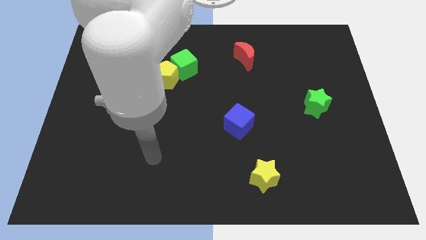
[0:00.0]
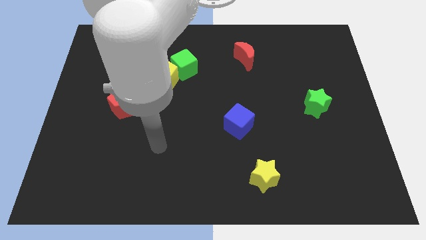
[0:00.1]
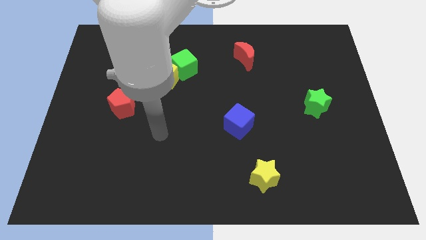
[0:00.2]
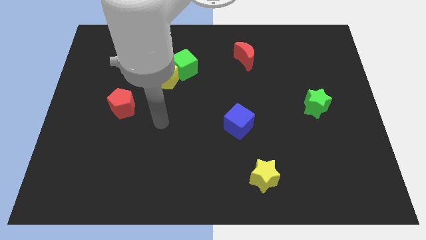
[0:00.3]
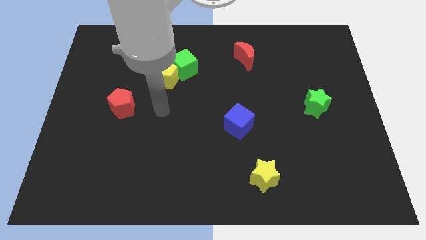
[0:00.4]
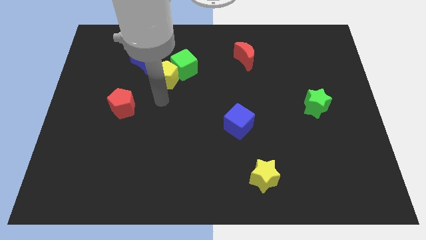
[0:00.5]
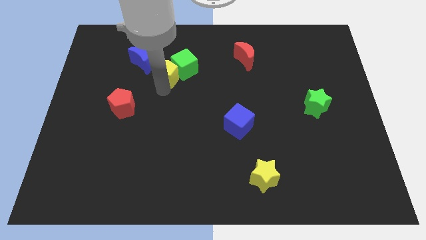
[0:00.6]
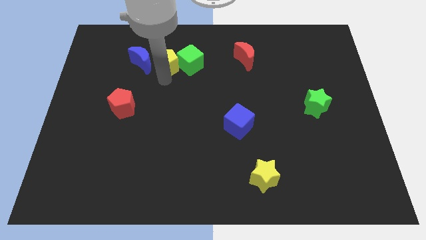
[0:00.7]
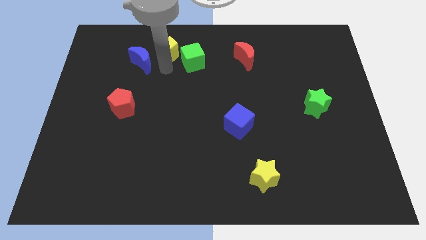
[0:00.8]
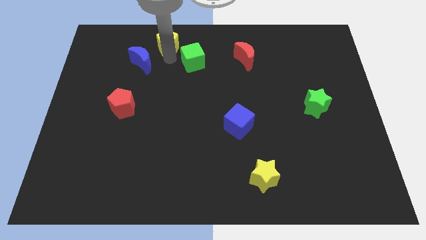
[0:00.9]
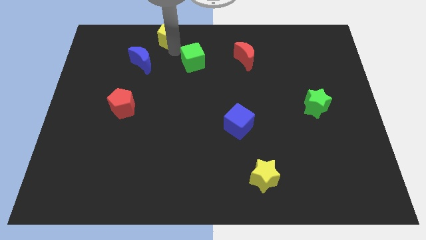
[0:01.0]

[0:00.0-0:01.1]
move the green cube away from the yellow pentagon

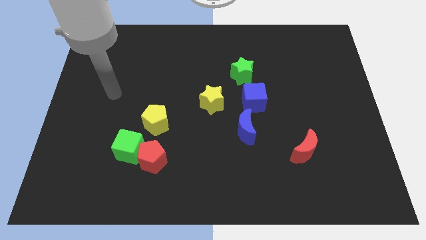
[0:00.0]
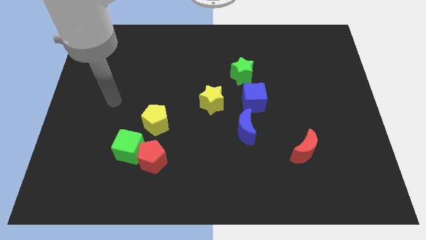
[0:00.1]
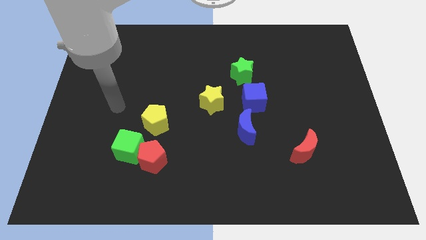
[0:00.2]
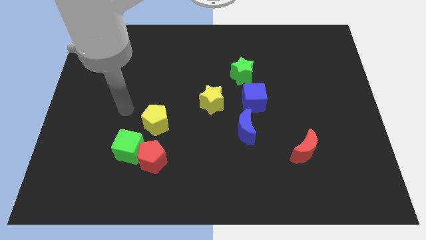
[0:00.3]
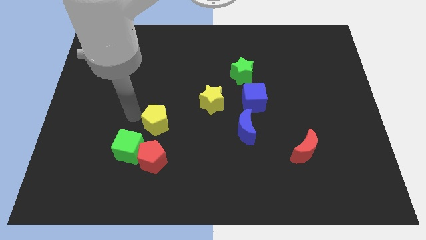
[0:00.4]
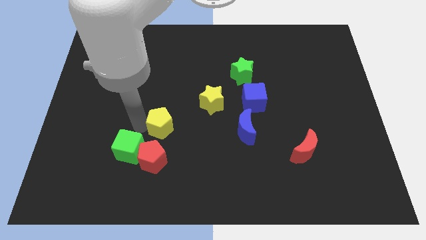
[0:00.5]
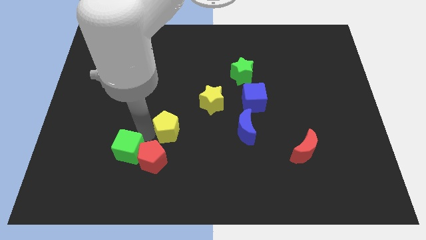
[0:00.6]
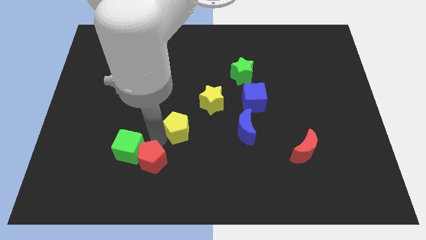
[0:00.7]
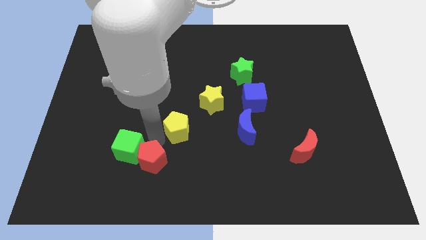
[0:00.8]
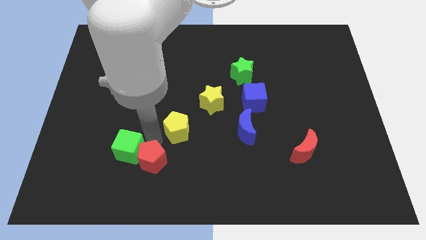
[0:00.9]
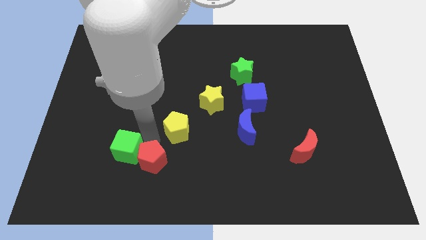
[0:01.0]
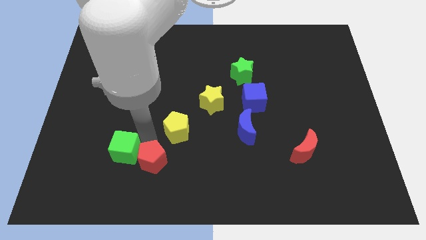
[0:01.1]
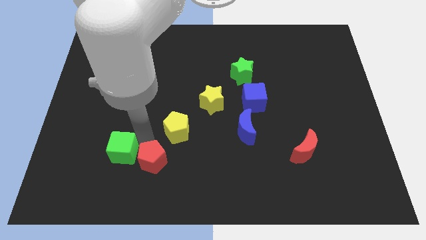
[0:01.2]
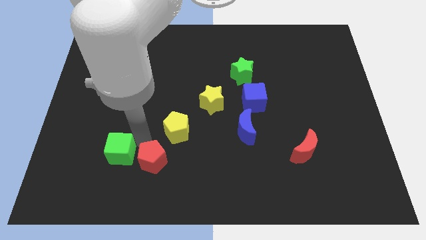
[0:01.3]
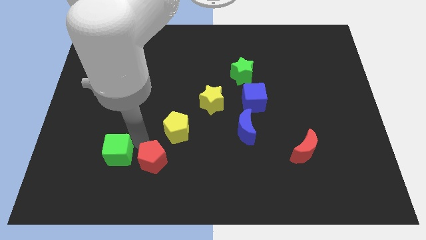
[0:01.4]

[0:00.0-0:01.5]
move the green cube away from the red pentagon and yellow pentagon

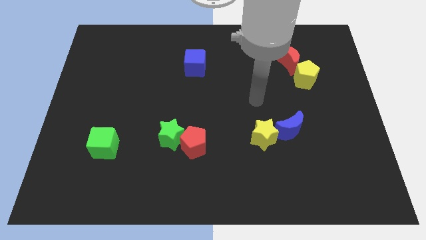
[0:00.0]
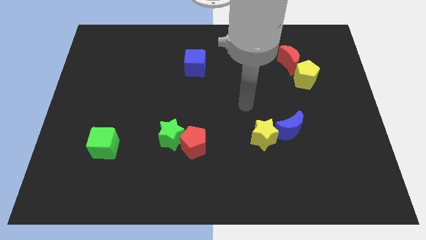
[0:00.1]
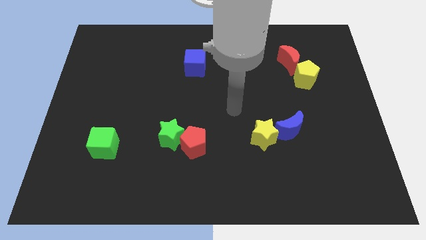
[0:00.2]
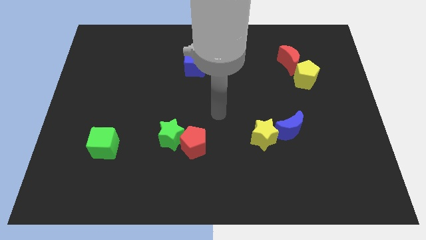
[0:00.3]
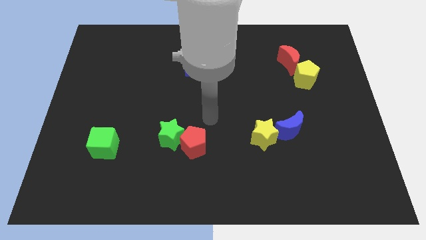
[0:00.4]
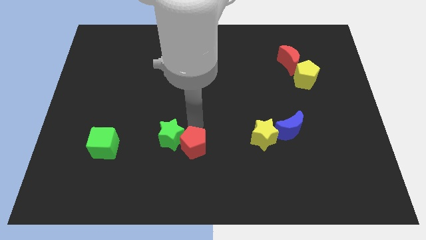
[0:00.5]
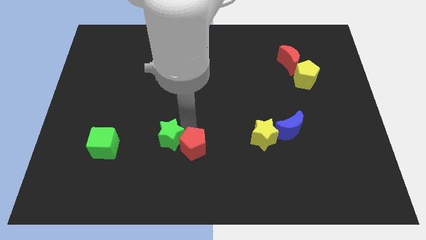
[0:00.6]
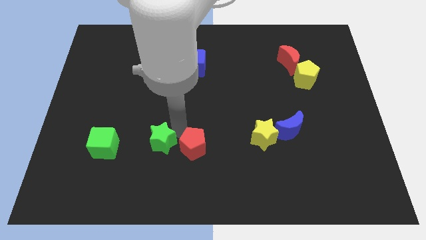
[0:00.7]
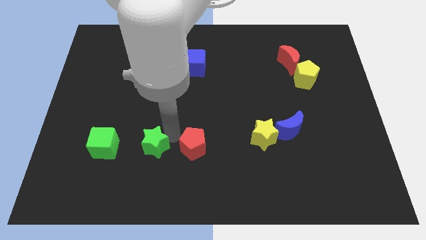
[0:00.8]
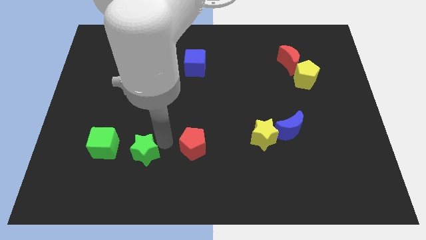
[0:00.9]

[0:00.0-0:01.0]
move the red pentagon away from the green star

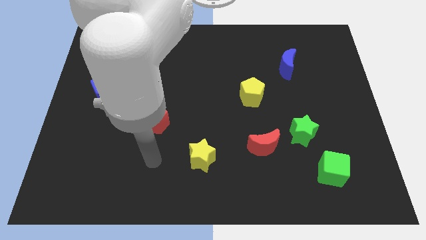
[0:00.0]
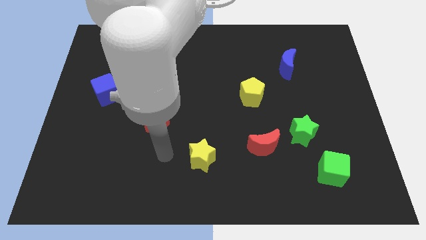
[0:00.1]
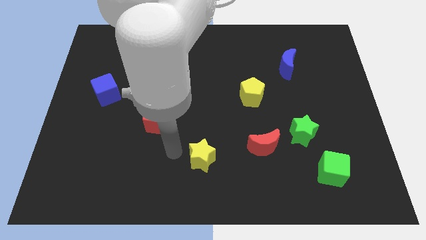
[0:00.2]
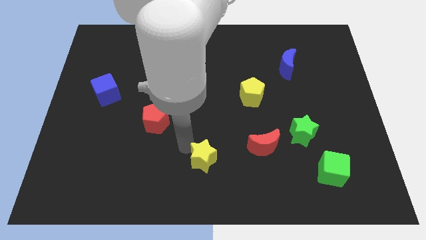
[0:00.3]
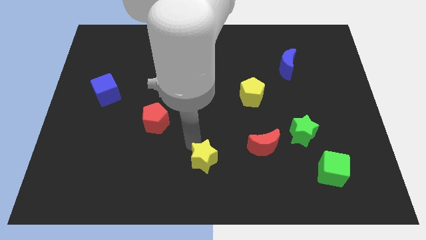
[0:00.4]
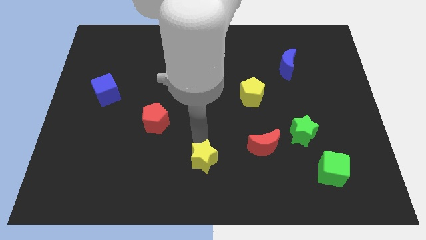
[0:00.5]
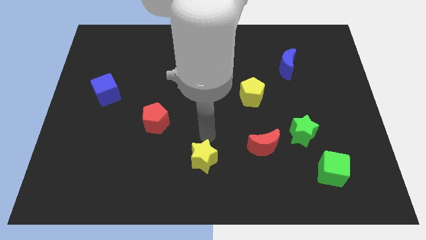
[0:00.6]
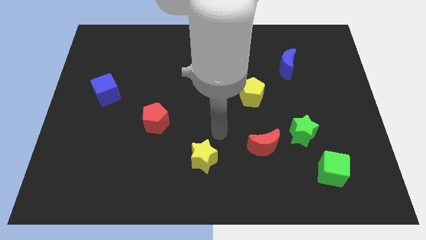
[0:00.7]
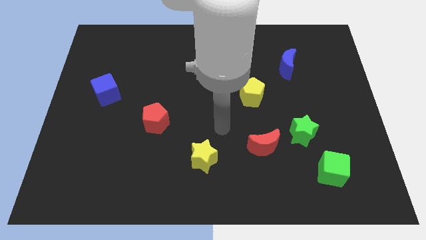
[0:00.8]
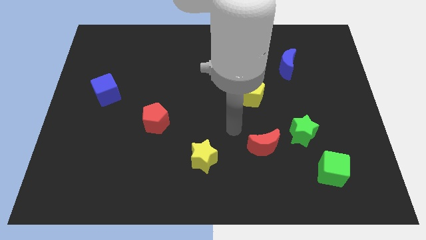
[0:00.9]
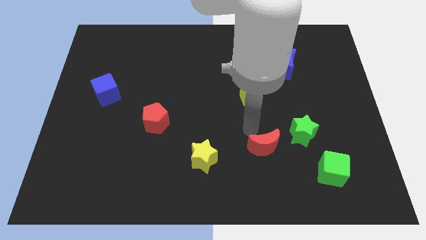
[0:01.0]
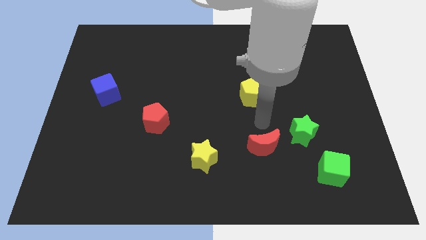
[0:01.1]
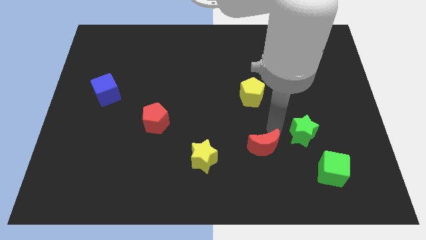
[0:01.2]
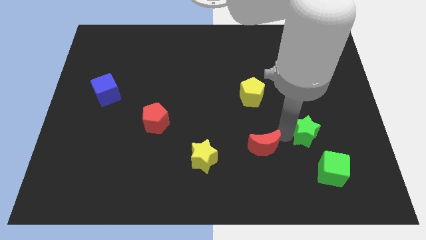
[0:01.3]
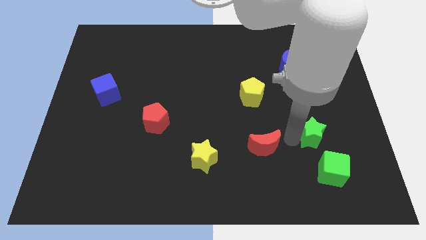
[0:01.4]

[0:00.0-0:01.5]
separate the red moon from the green star

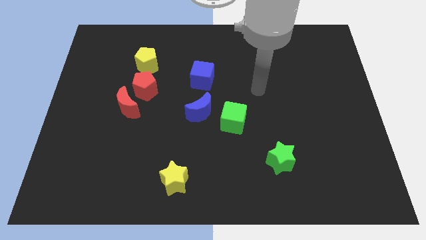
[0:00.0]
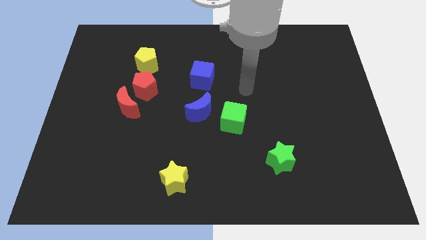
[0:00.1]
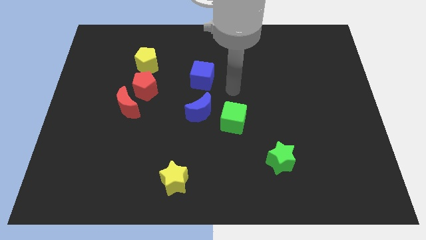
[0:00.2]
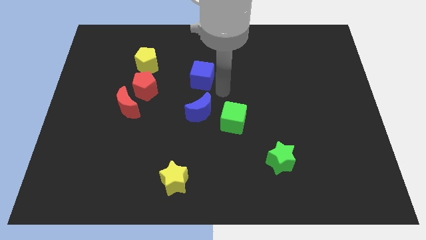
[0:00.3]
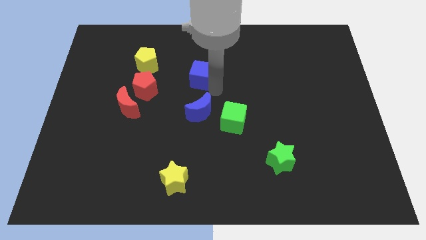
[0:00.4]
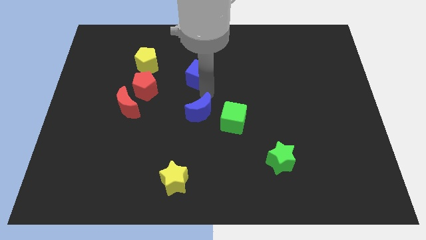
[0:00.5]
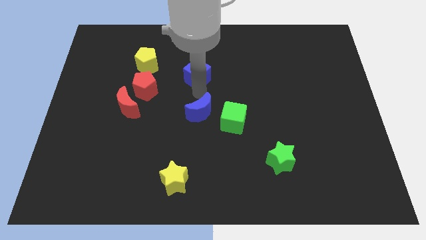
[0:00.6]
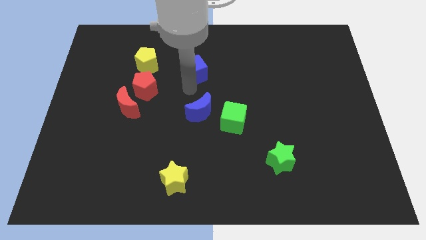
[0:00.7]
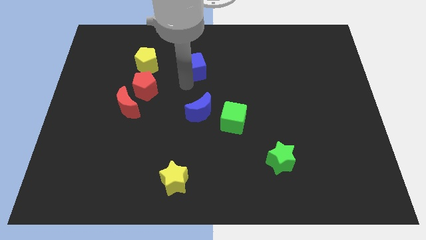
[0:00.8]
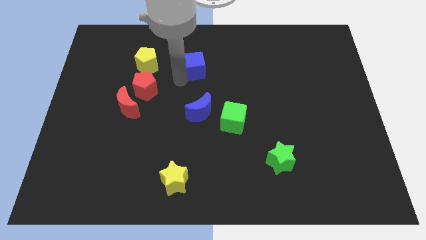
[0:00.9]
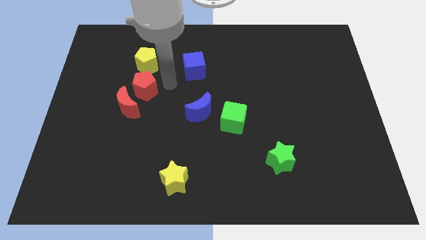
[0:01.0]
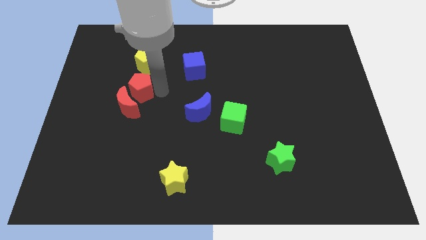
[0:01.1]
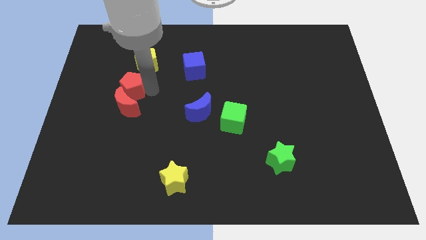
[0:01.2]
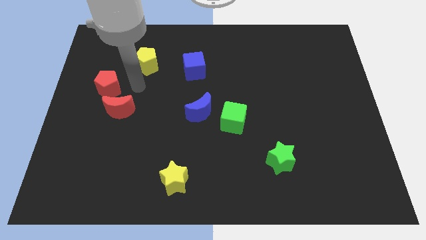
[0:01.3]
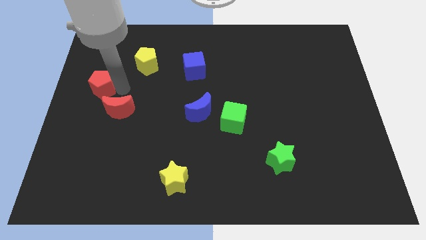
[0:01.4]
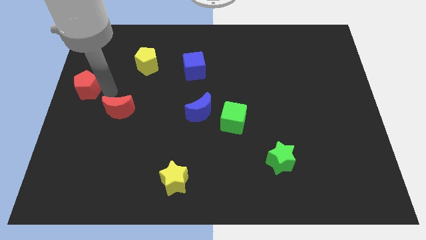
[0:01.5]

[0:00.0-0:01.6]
separate the red moon from the red pentagon

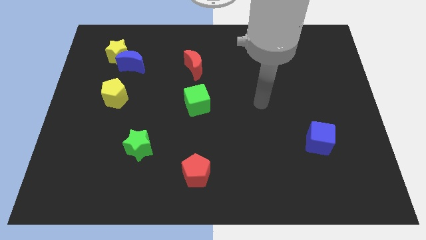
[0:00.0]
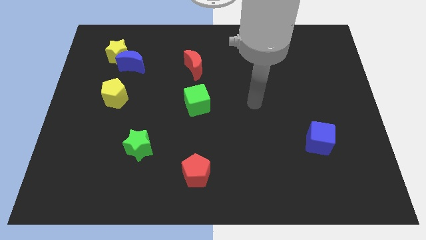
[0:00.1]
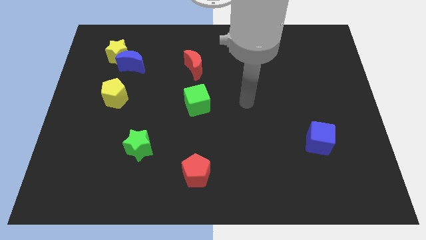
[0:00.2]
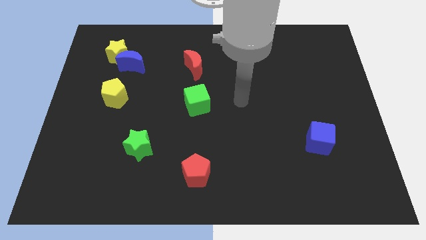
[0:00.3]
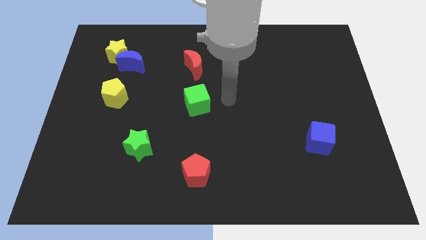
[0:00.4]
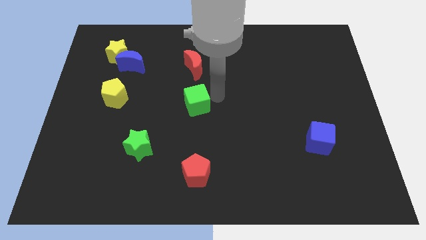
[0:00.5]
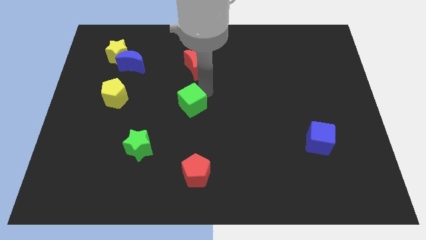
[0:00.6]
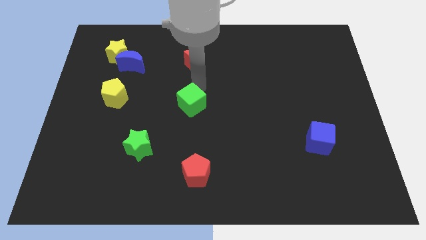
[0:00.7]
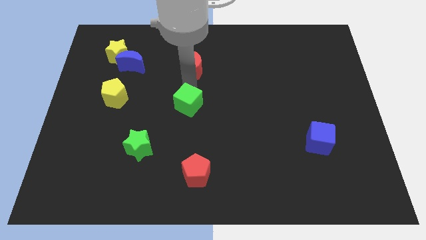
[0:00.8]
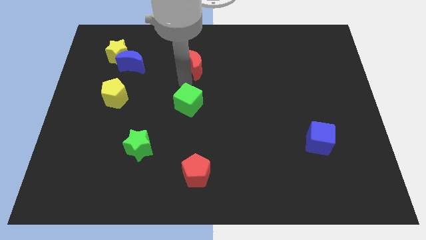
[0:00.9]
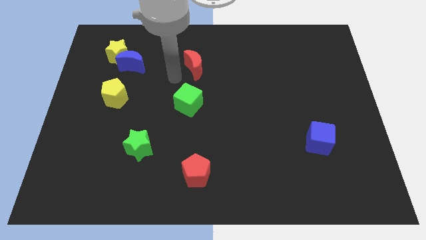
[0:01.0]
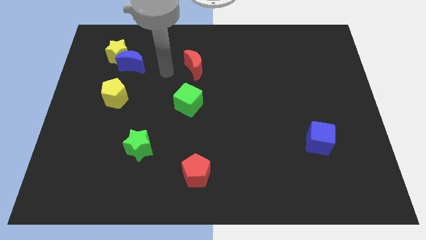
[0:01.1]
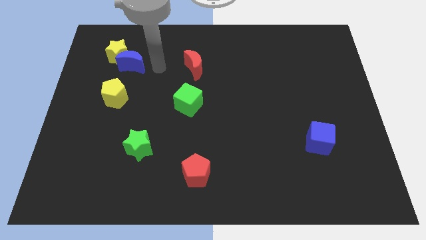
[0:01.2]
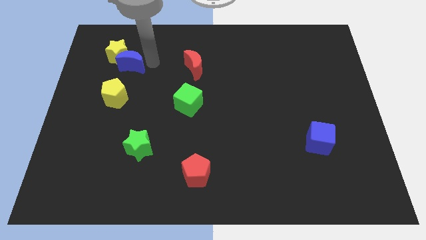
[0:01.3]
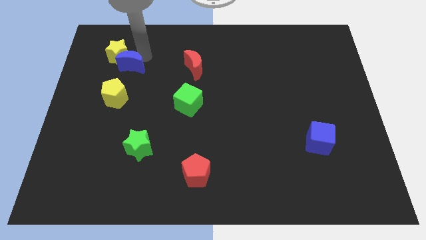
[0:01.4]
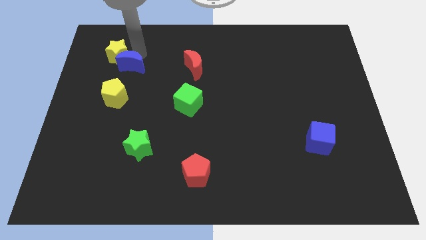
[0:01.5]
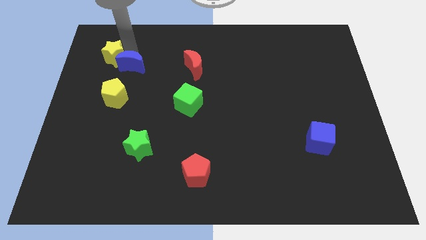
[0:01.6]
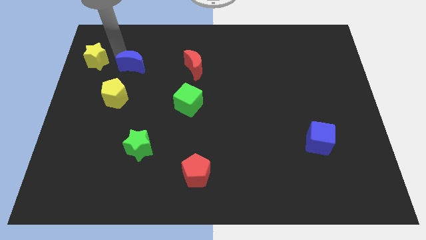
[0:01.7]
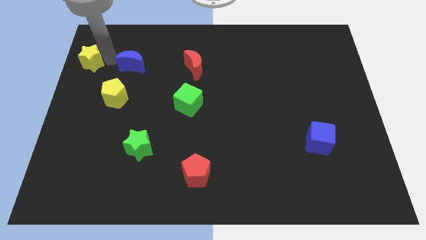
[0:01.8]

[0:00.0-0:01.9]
separate the blue moon from the yellow star

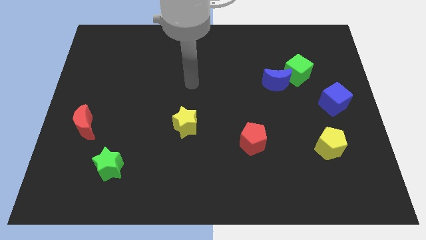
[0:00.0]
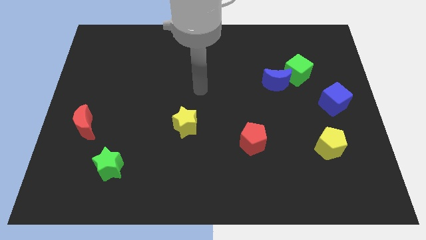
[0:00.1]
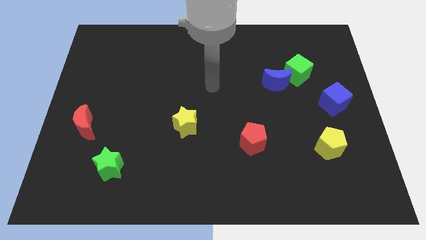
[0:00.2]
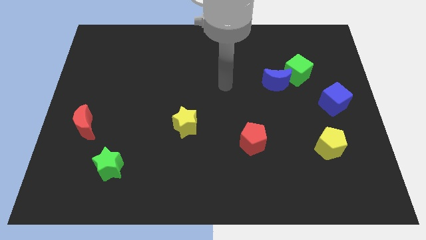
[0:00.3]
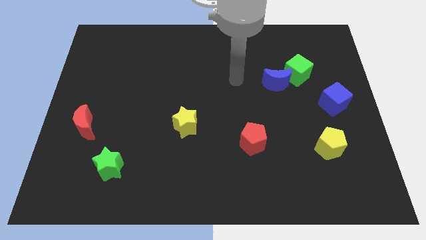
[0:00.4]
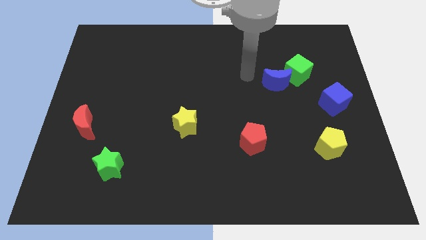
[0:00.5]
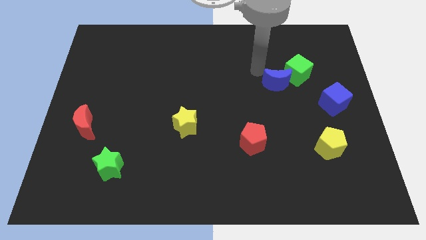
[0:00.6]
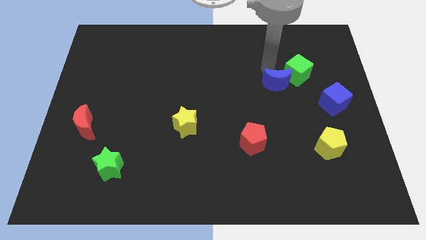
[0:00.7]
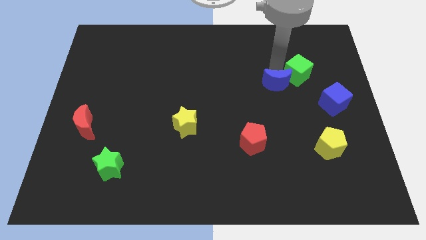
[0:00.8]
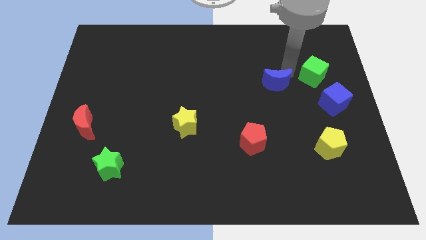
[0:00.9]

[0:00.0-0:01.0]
separate the blue moon from the green cube
